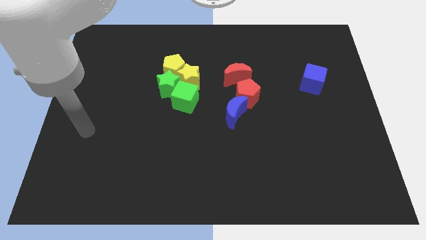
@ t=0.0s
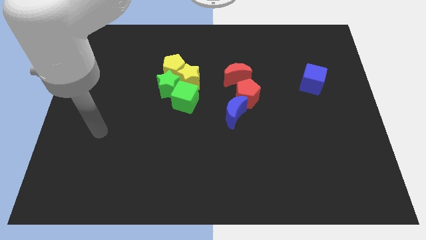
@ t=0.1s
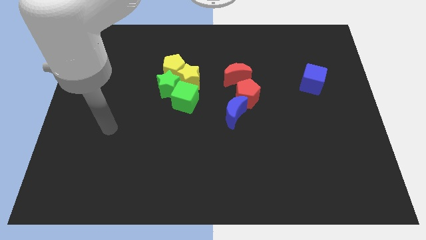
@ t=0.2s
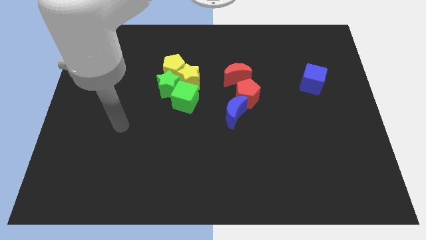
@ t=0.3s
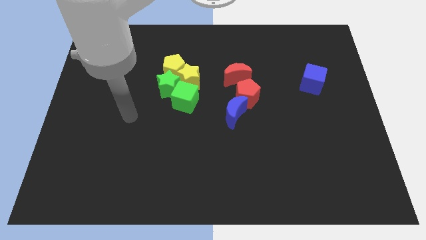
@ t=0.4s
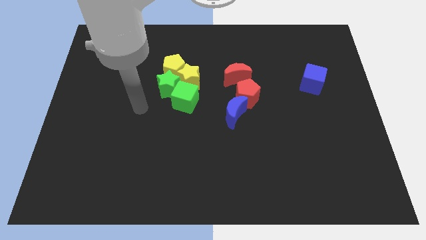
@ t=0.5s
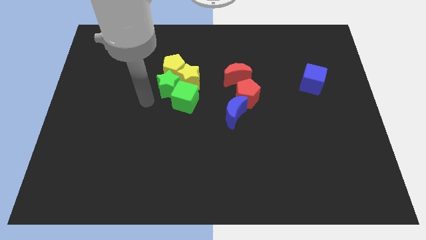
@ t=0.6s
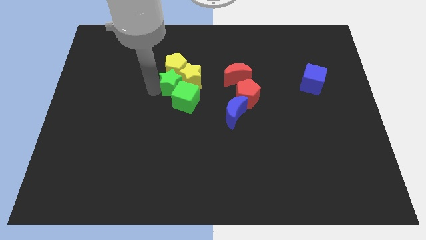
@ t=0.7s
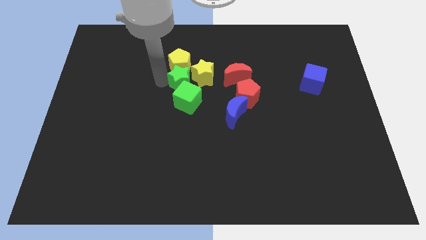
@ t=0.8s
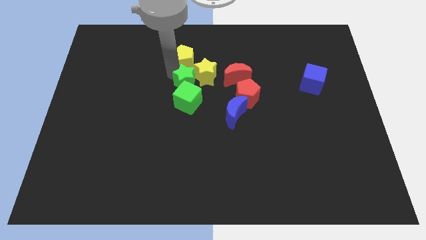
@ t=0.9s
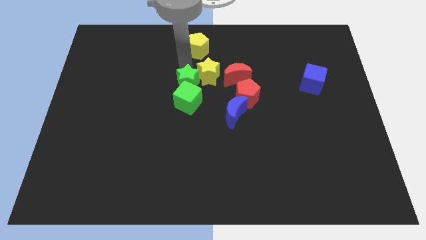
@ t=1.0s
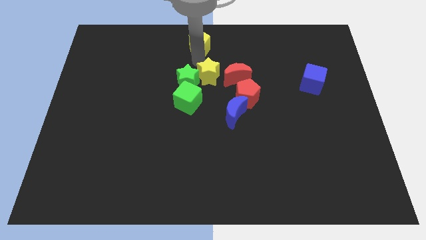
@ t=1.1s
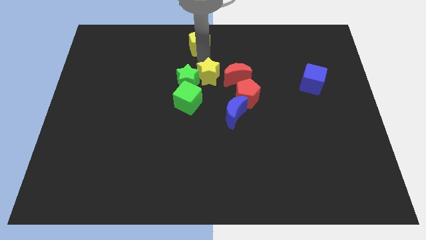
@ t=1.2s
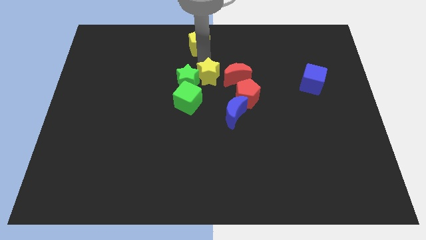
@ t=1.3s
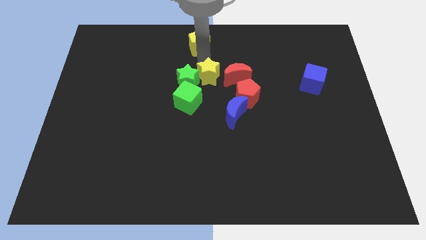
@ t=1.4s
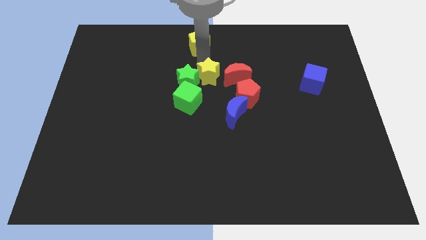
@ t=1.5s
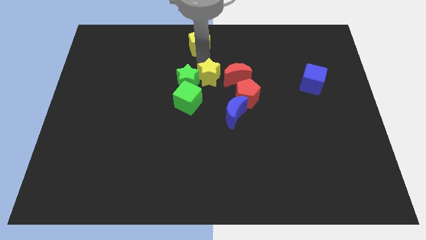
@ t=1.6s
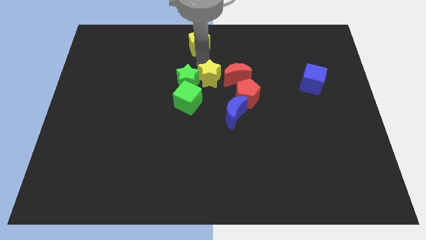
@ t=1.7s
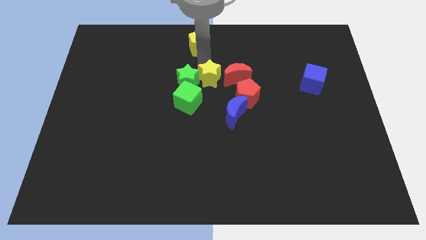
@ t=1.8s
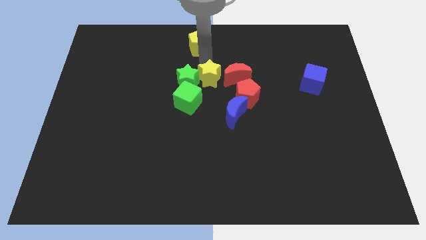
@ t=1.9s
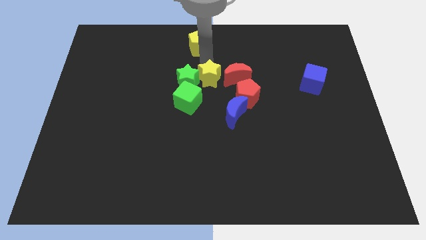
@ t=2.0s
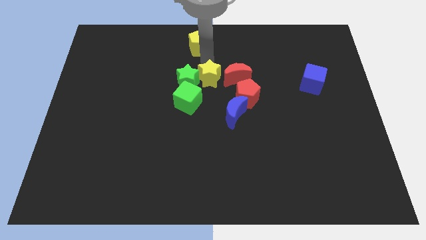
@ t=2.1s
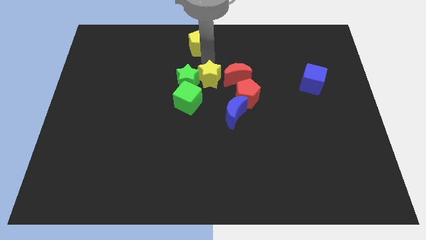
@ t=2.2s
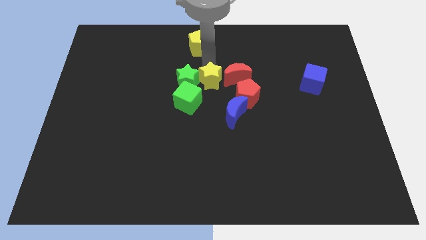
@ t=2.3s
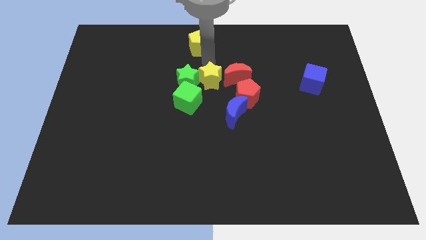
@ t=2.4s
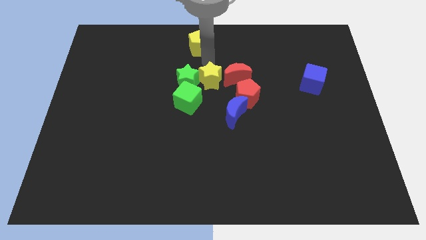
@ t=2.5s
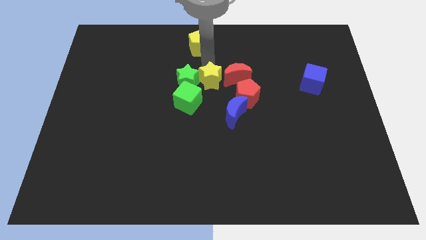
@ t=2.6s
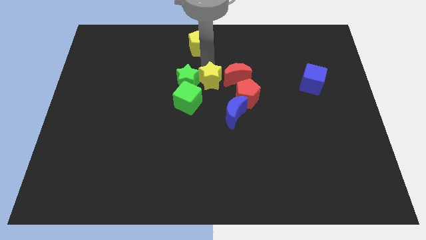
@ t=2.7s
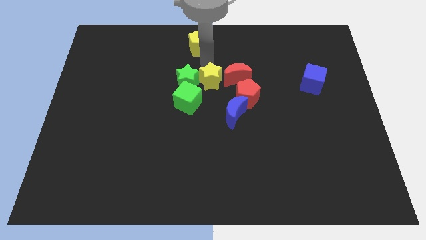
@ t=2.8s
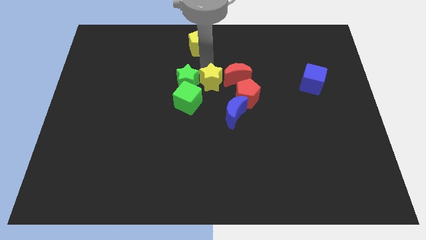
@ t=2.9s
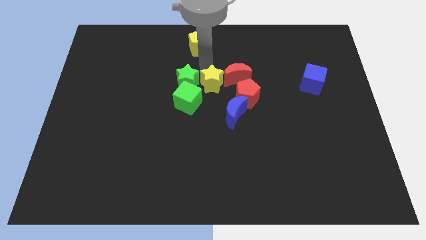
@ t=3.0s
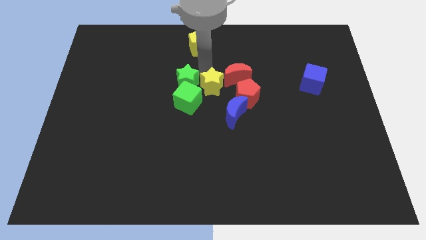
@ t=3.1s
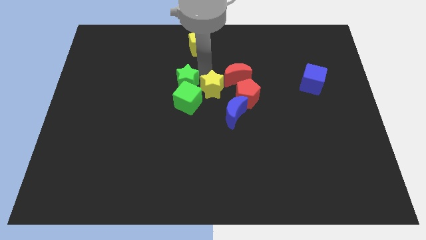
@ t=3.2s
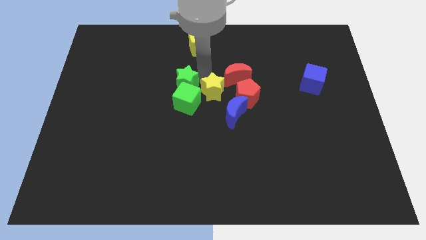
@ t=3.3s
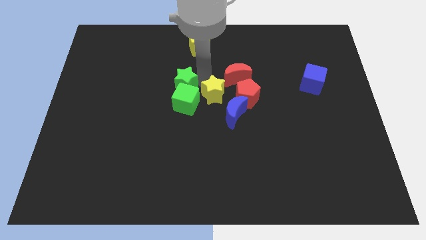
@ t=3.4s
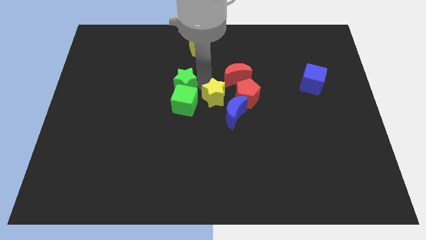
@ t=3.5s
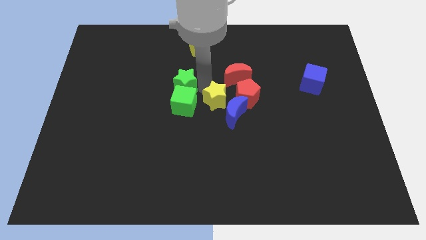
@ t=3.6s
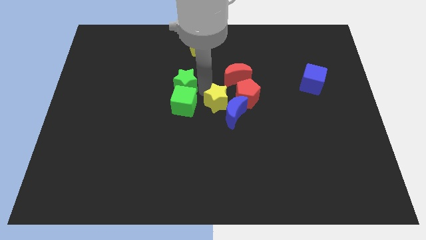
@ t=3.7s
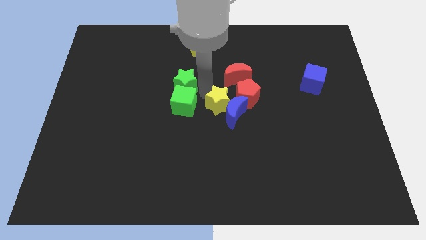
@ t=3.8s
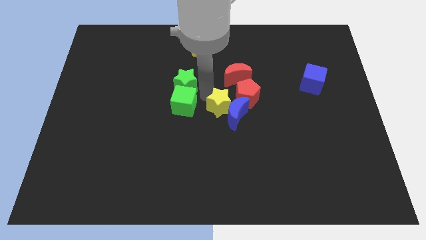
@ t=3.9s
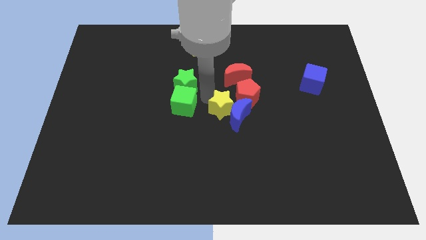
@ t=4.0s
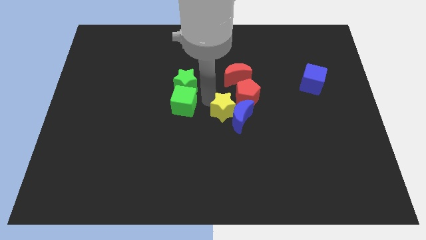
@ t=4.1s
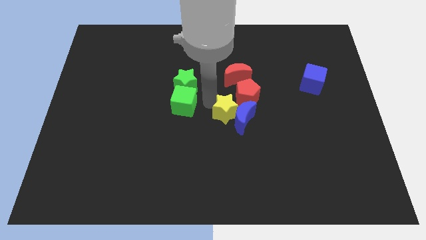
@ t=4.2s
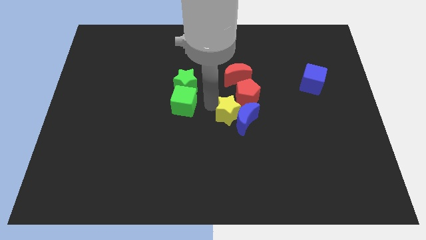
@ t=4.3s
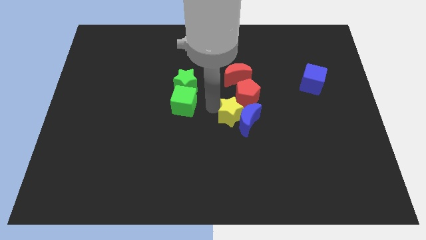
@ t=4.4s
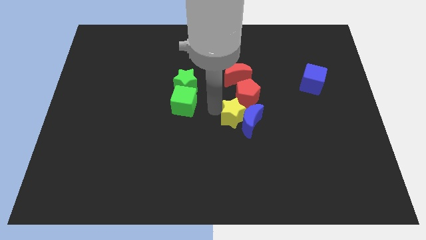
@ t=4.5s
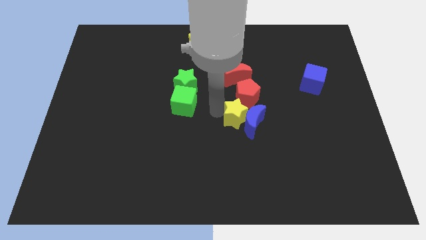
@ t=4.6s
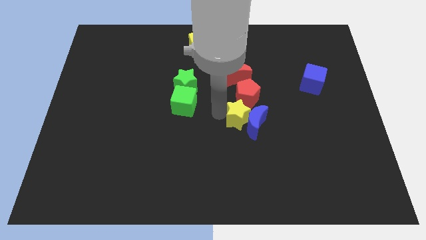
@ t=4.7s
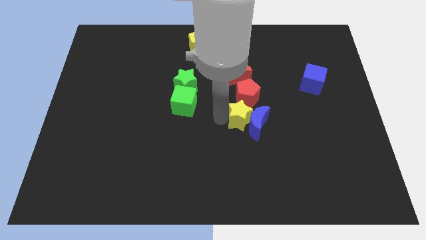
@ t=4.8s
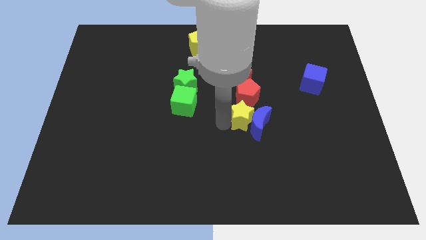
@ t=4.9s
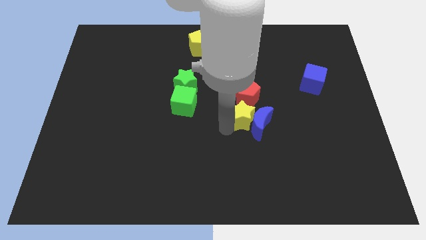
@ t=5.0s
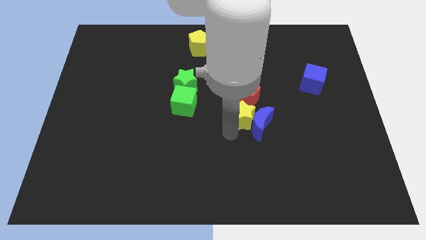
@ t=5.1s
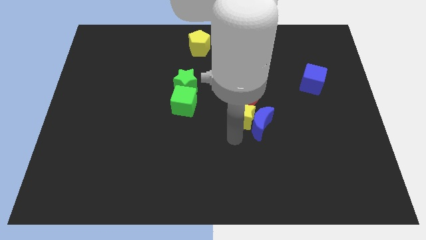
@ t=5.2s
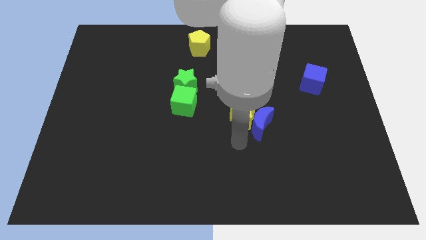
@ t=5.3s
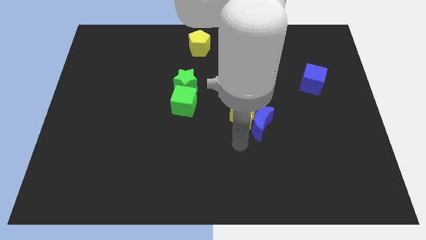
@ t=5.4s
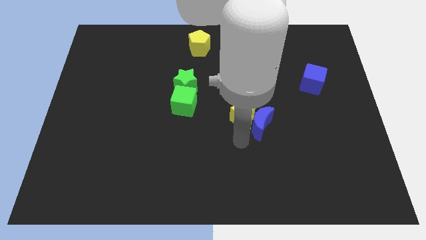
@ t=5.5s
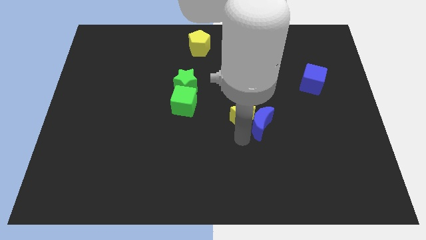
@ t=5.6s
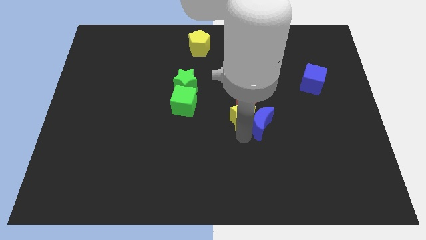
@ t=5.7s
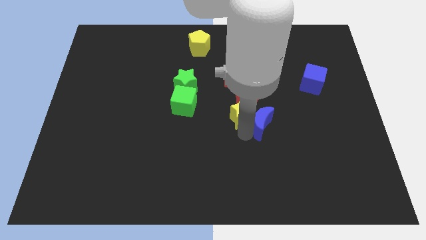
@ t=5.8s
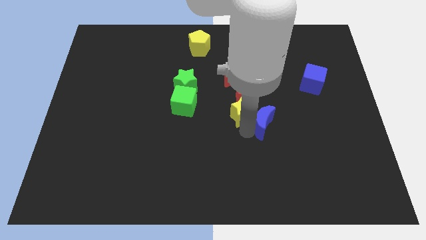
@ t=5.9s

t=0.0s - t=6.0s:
push the yellow star next to the red pentagon
